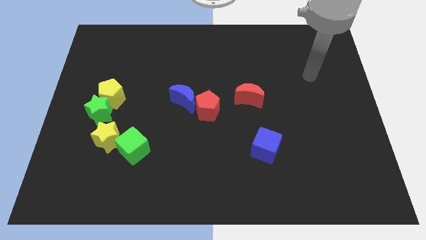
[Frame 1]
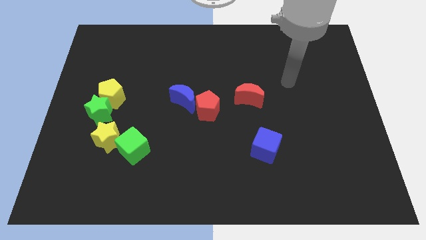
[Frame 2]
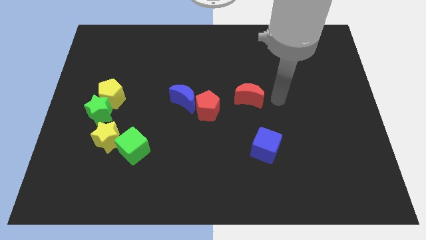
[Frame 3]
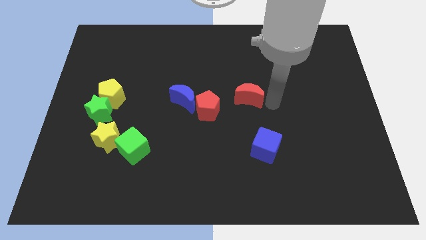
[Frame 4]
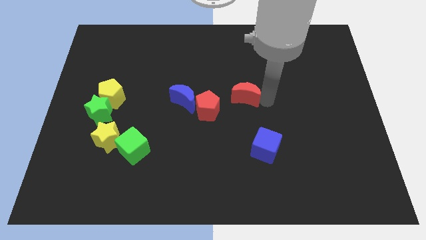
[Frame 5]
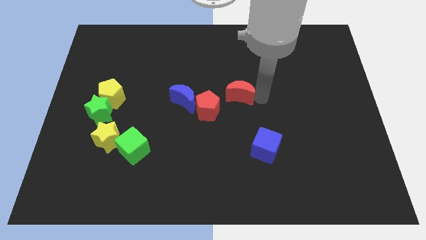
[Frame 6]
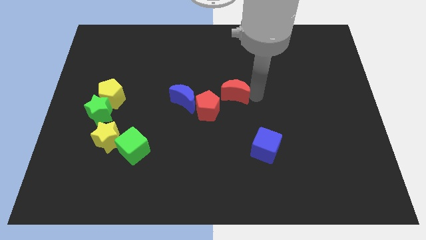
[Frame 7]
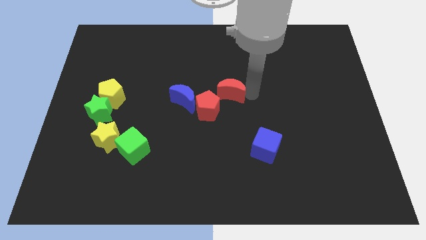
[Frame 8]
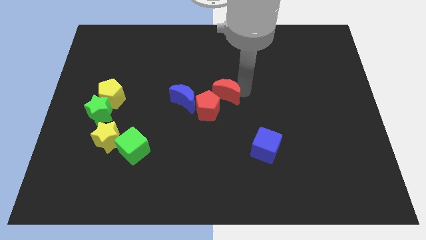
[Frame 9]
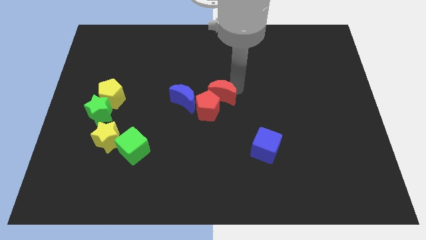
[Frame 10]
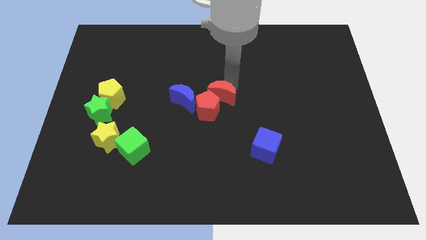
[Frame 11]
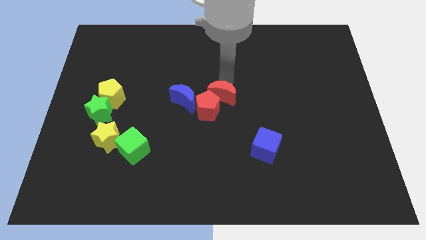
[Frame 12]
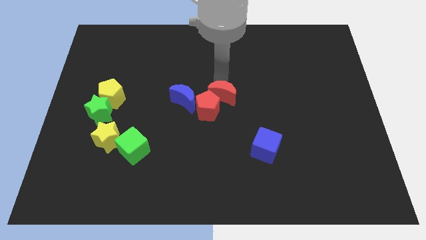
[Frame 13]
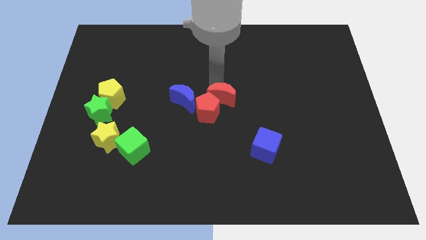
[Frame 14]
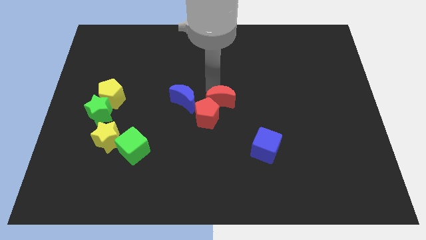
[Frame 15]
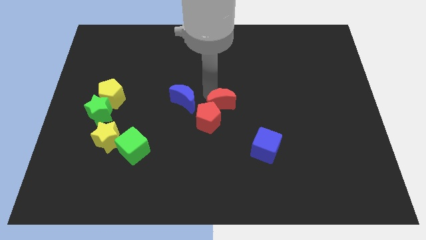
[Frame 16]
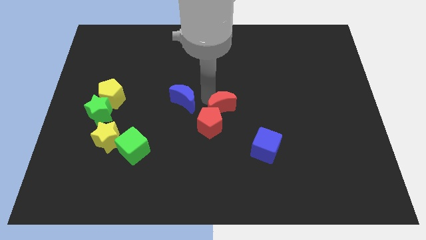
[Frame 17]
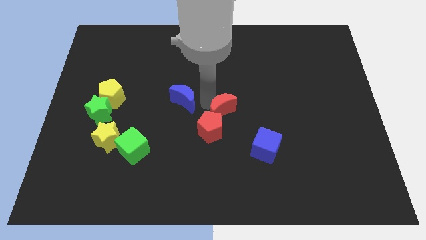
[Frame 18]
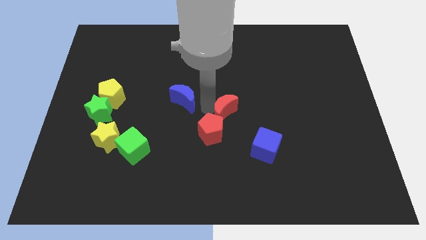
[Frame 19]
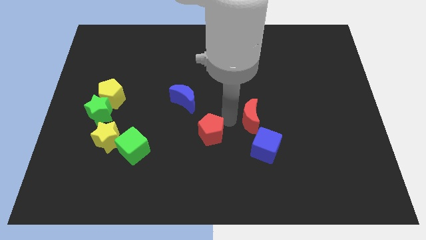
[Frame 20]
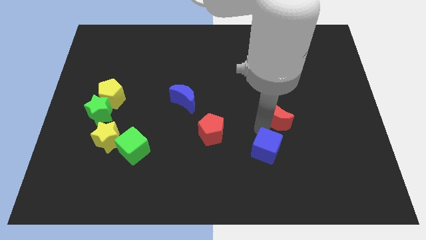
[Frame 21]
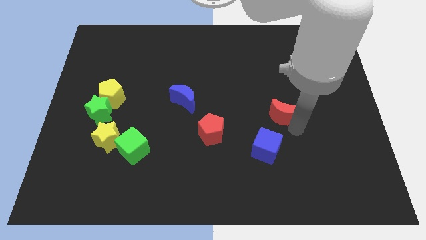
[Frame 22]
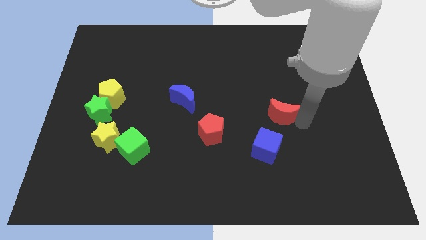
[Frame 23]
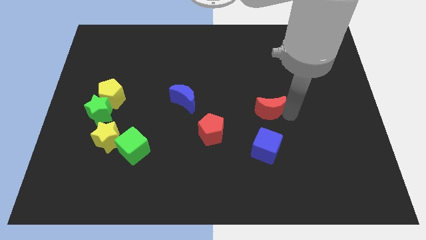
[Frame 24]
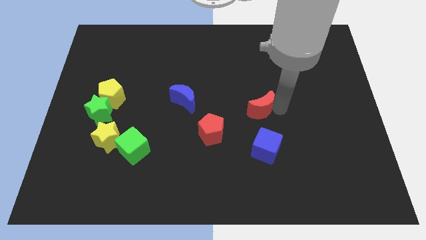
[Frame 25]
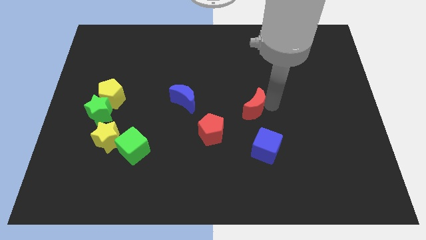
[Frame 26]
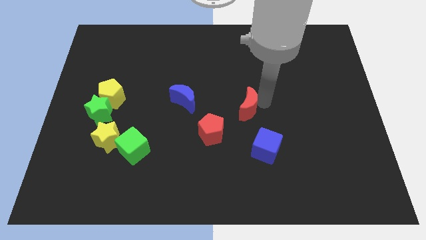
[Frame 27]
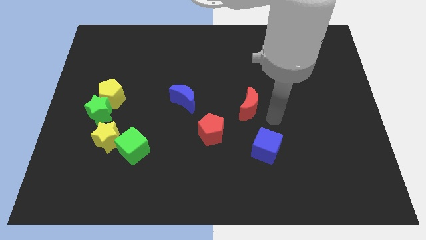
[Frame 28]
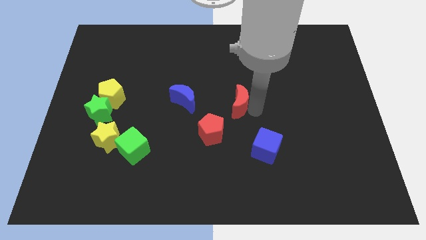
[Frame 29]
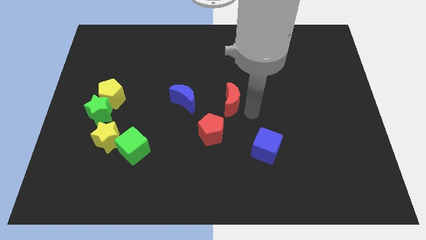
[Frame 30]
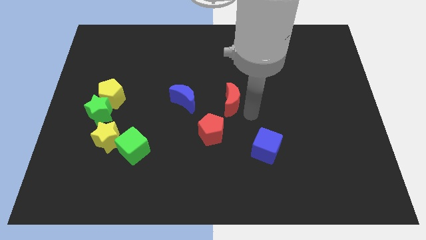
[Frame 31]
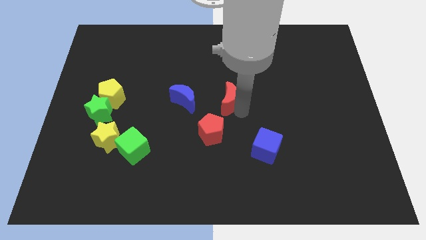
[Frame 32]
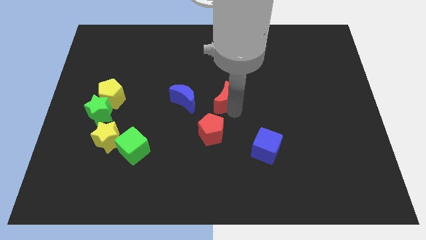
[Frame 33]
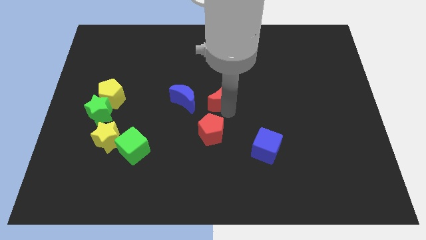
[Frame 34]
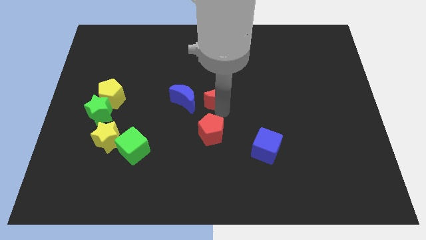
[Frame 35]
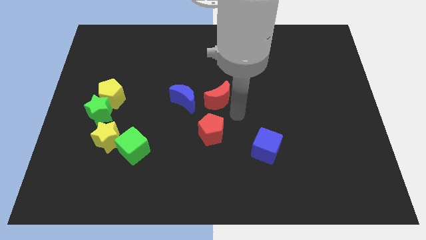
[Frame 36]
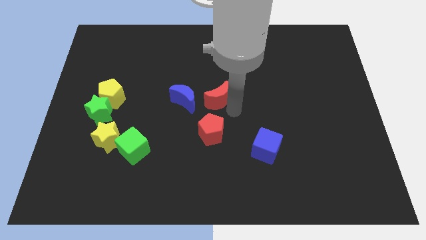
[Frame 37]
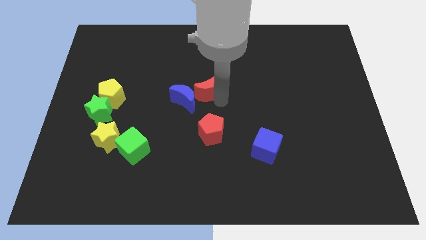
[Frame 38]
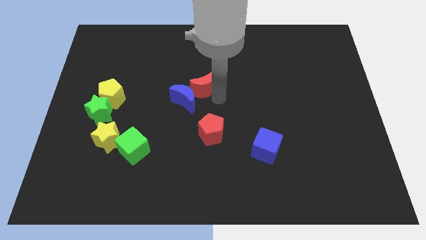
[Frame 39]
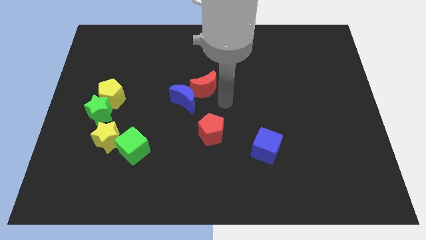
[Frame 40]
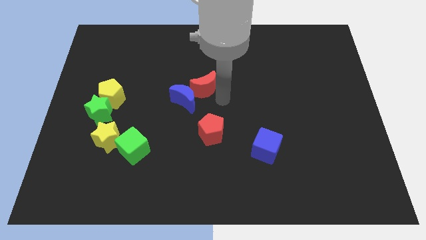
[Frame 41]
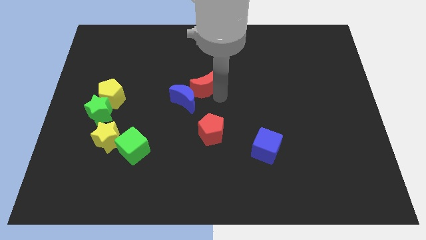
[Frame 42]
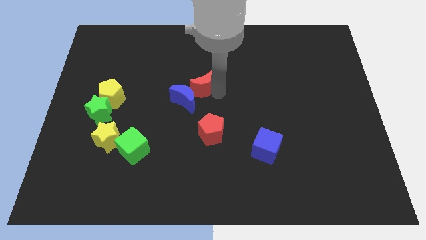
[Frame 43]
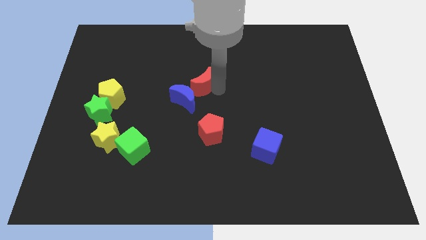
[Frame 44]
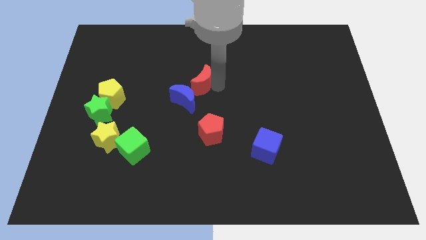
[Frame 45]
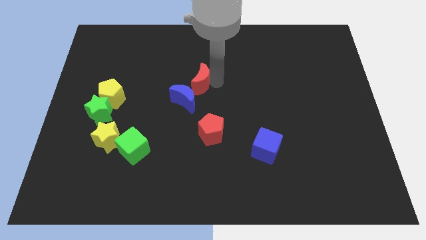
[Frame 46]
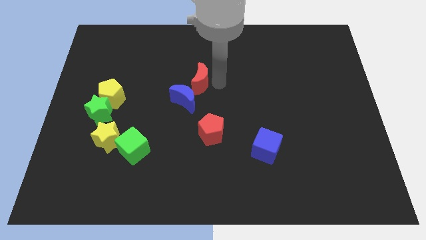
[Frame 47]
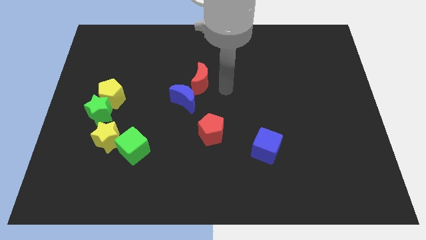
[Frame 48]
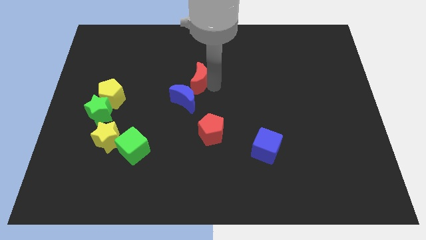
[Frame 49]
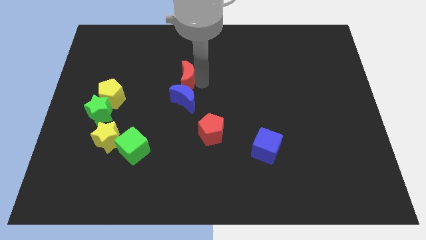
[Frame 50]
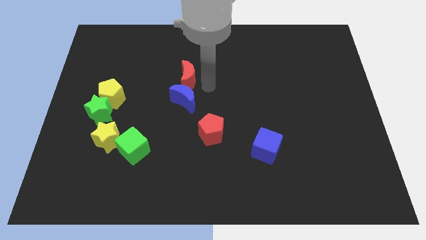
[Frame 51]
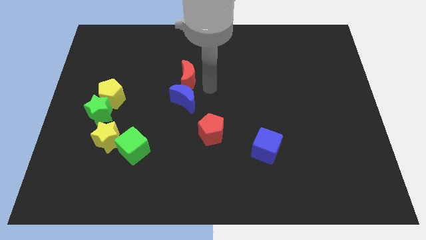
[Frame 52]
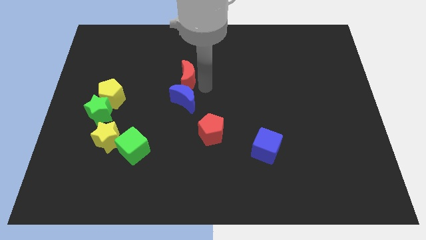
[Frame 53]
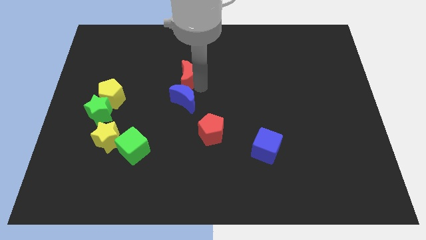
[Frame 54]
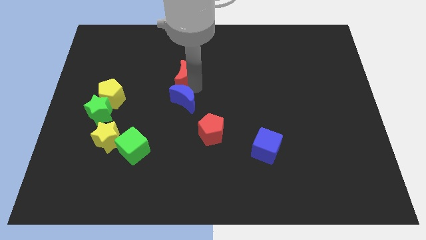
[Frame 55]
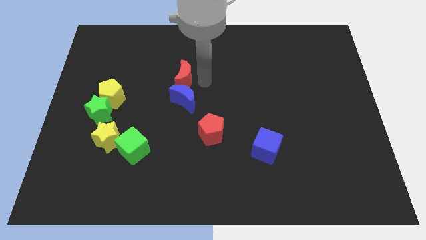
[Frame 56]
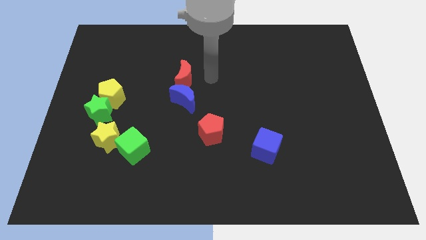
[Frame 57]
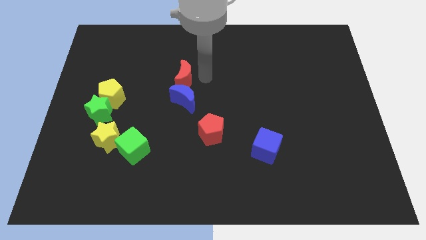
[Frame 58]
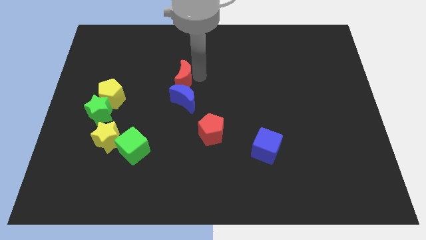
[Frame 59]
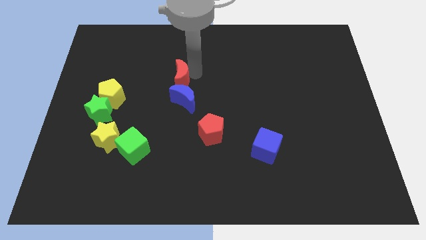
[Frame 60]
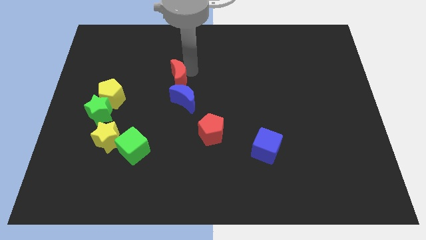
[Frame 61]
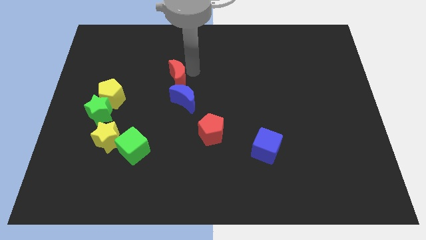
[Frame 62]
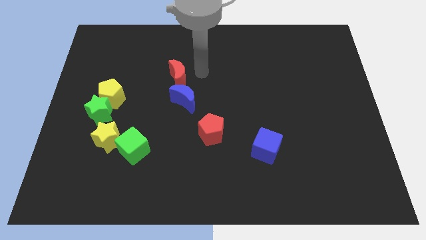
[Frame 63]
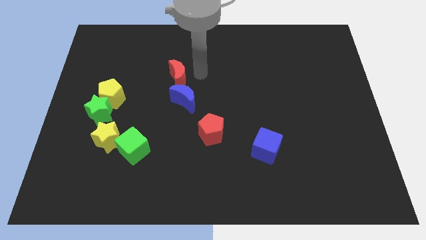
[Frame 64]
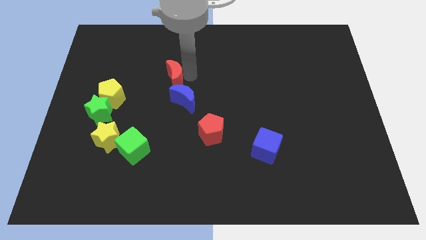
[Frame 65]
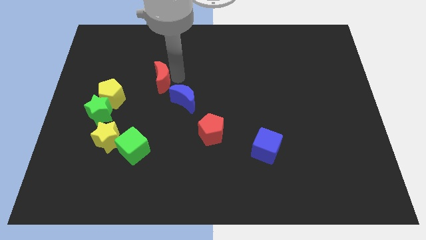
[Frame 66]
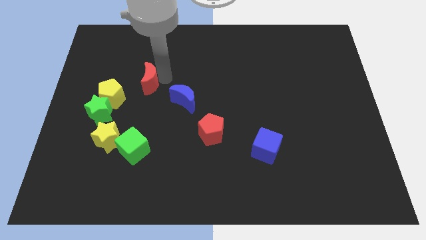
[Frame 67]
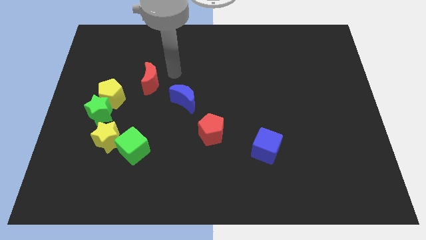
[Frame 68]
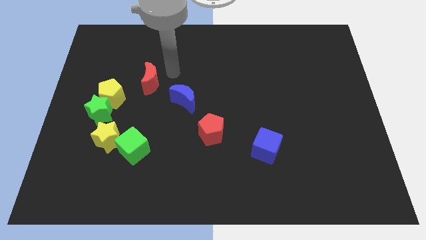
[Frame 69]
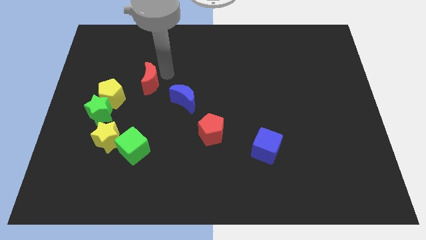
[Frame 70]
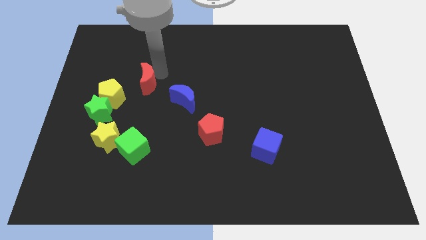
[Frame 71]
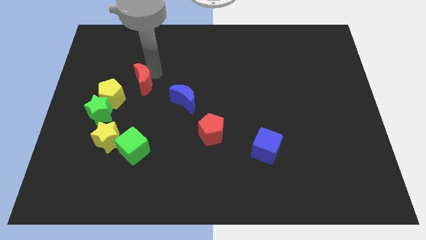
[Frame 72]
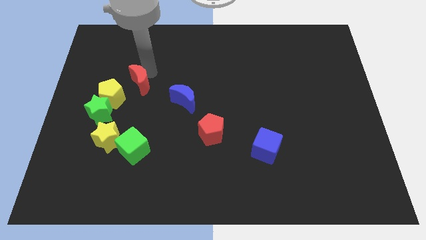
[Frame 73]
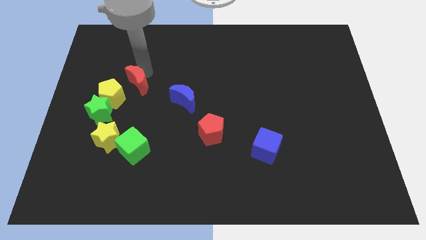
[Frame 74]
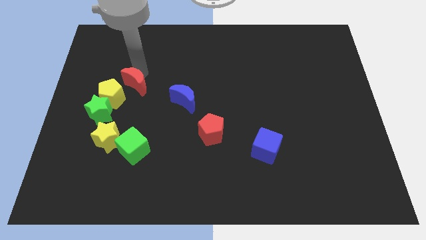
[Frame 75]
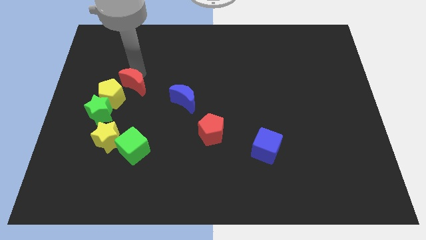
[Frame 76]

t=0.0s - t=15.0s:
slide the red moon to the yellow pentagon
